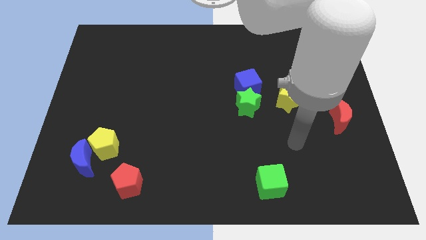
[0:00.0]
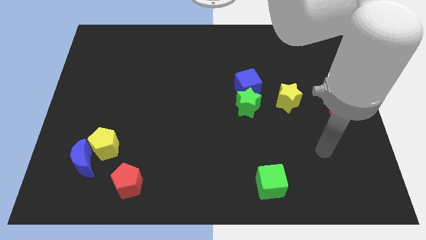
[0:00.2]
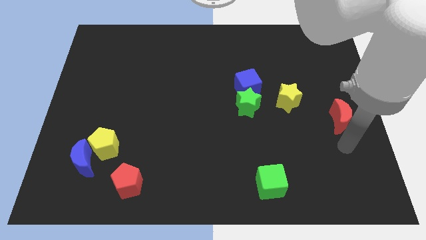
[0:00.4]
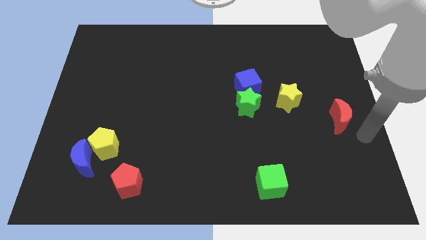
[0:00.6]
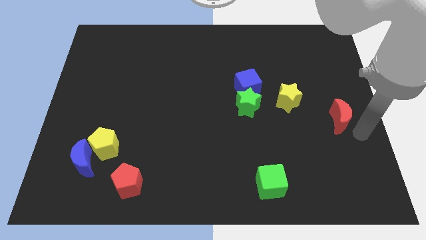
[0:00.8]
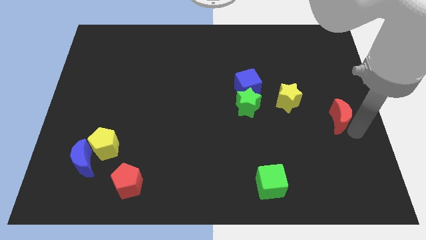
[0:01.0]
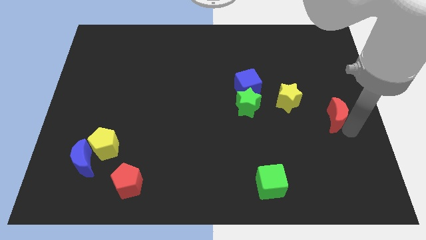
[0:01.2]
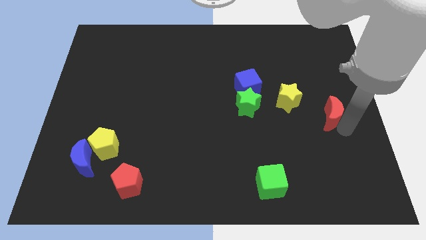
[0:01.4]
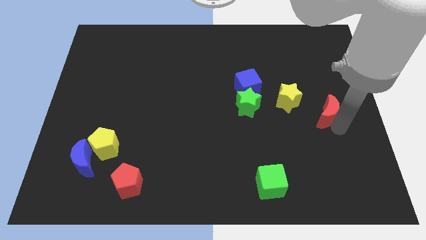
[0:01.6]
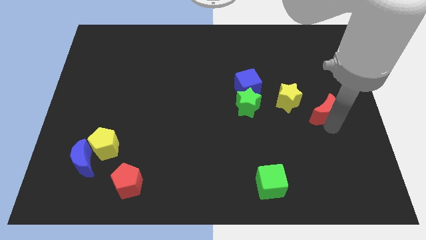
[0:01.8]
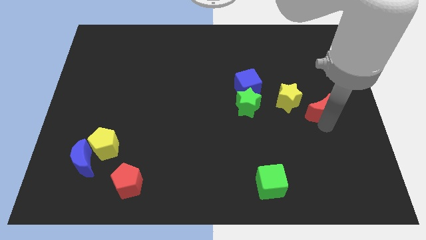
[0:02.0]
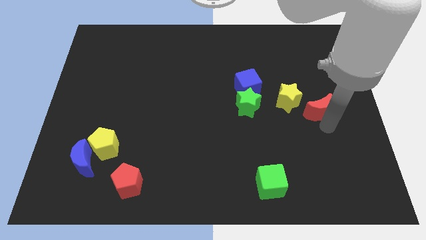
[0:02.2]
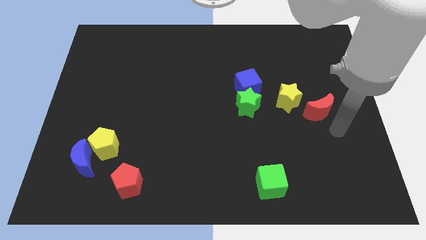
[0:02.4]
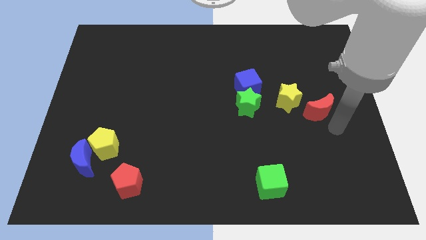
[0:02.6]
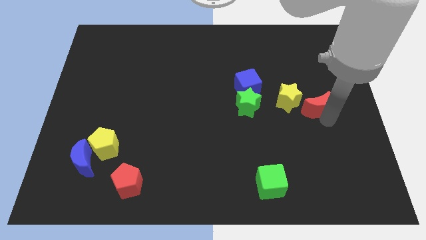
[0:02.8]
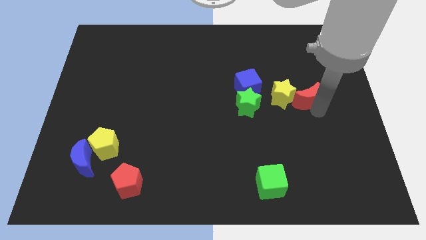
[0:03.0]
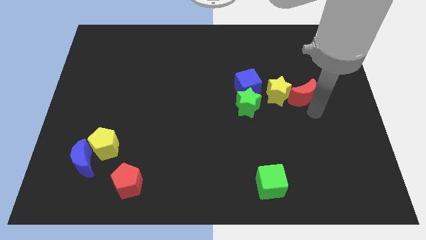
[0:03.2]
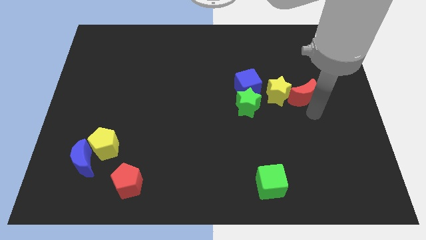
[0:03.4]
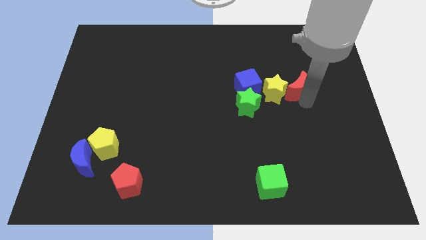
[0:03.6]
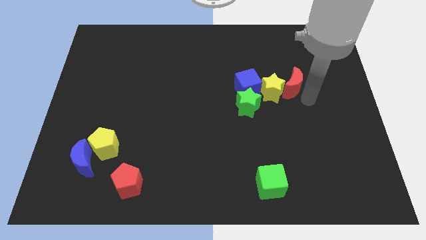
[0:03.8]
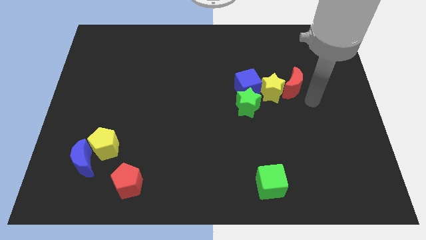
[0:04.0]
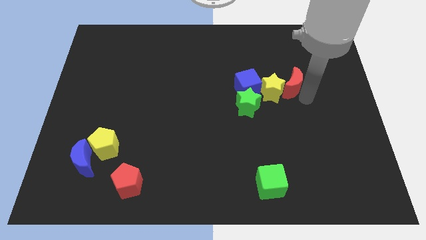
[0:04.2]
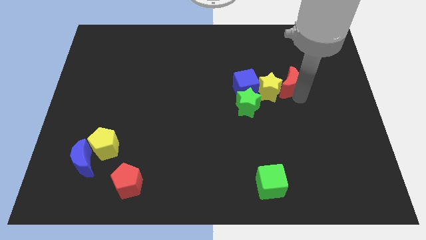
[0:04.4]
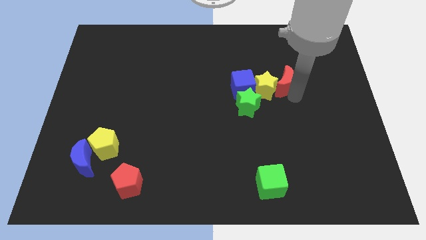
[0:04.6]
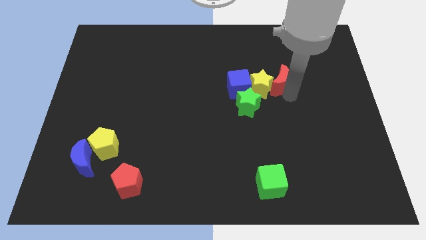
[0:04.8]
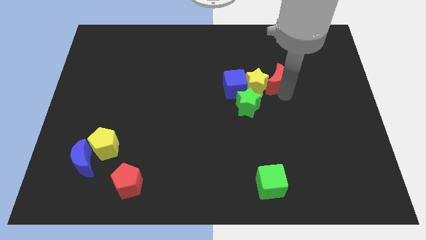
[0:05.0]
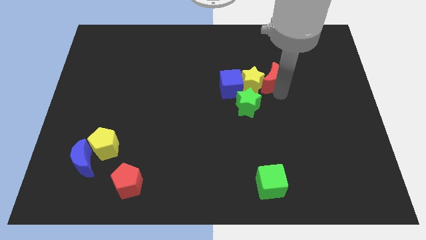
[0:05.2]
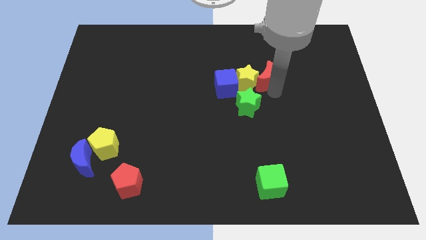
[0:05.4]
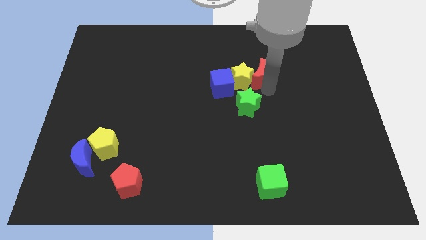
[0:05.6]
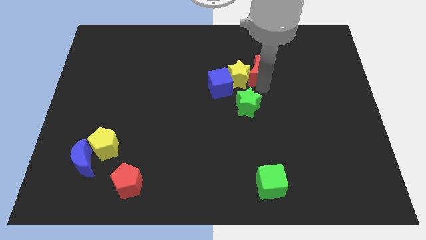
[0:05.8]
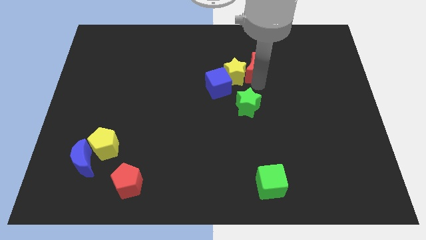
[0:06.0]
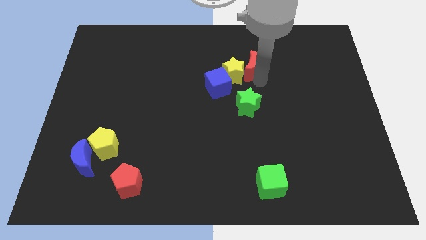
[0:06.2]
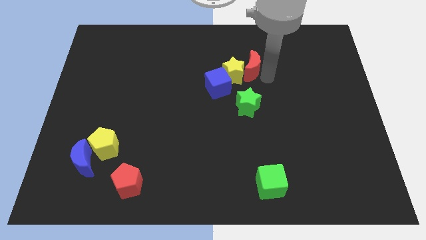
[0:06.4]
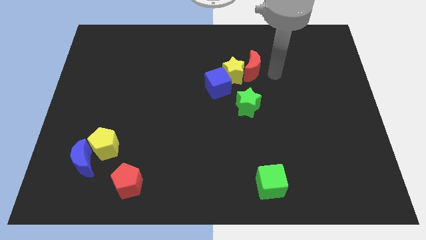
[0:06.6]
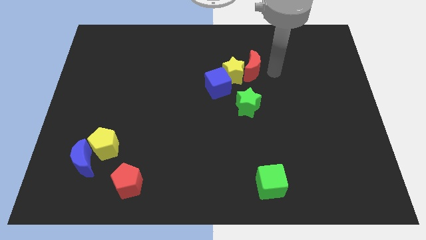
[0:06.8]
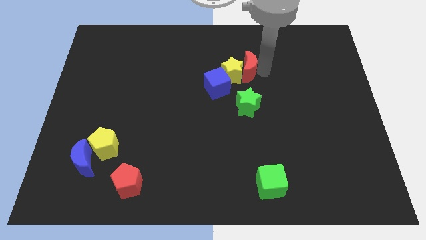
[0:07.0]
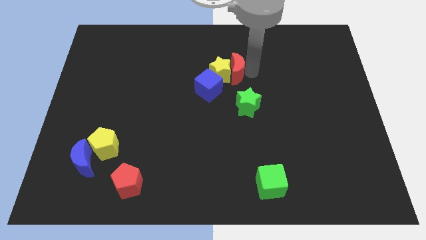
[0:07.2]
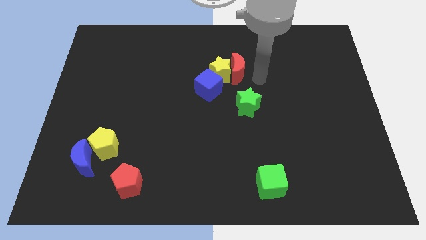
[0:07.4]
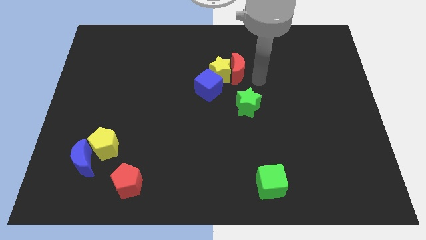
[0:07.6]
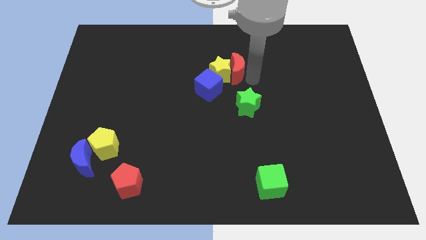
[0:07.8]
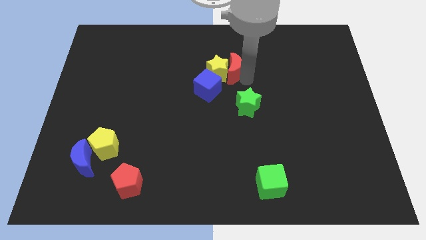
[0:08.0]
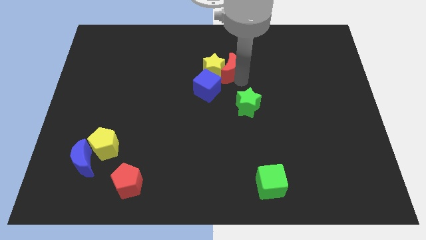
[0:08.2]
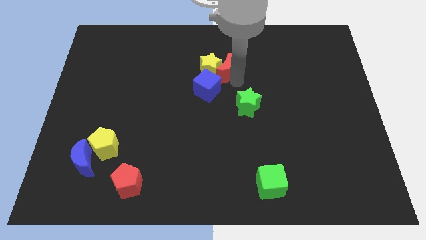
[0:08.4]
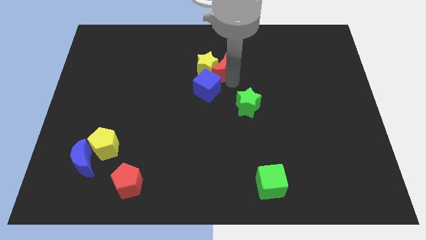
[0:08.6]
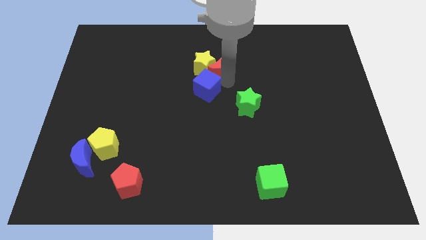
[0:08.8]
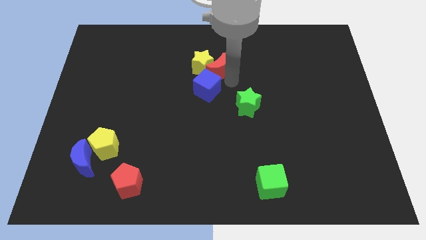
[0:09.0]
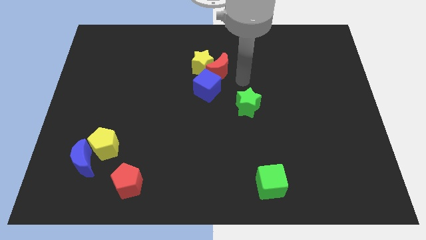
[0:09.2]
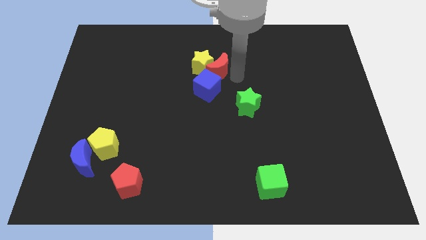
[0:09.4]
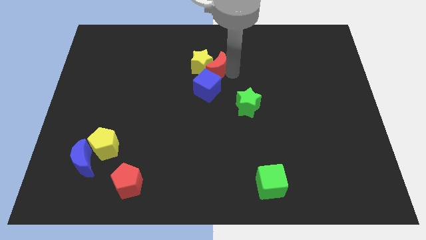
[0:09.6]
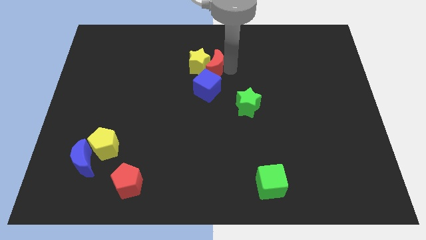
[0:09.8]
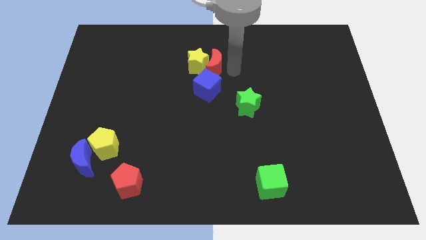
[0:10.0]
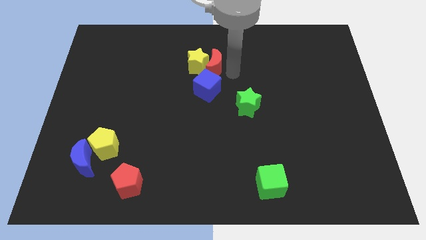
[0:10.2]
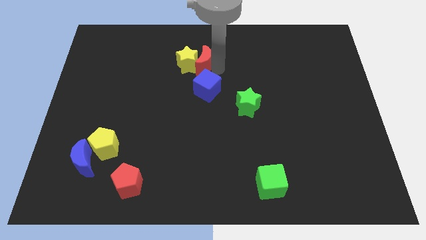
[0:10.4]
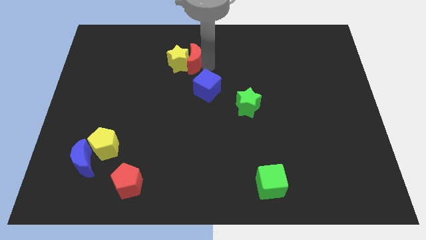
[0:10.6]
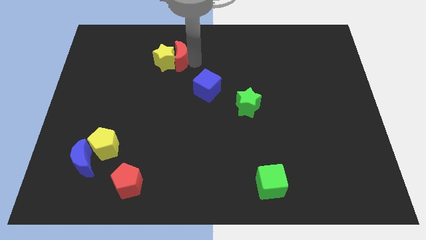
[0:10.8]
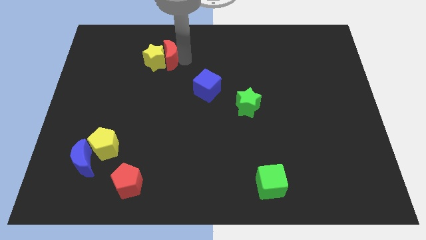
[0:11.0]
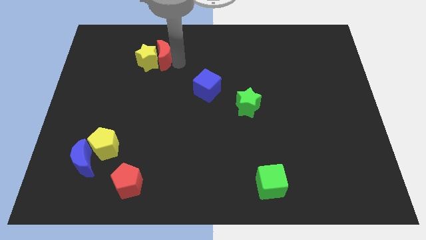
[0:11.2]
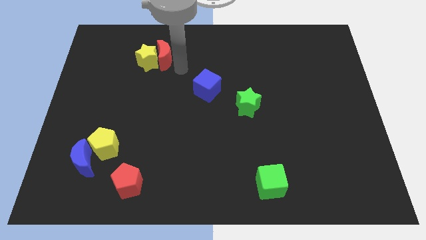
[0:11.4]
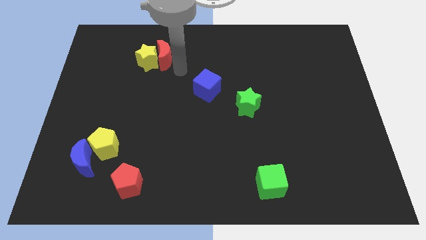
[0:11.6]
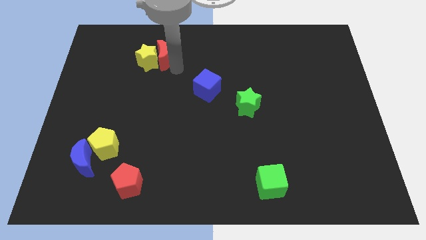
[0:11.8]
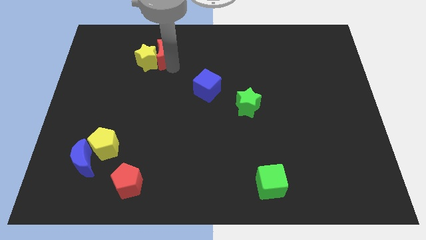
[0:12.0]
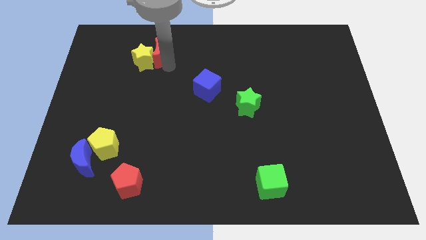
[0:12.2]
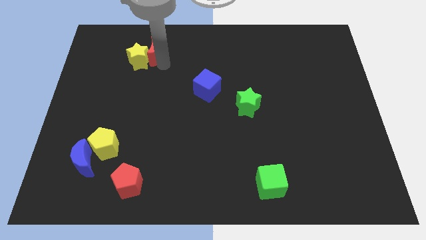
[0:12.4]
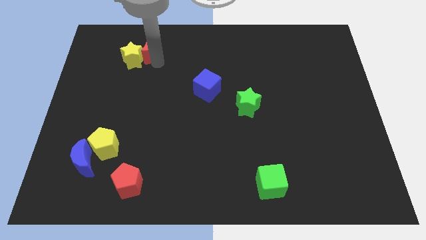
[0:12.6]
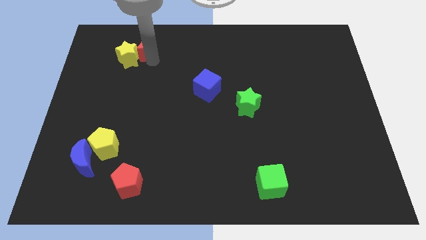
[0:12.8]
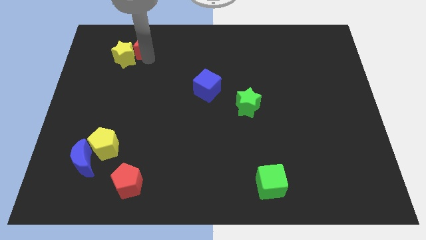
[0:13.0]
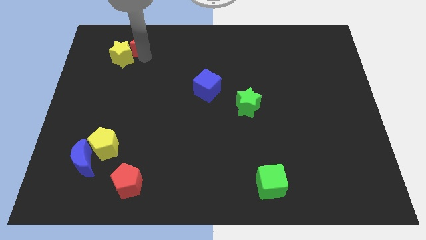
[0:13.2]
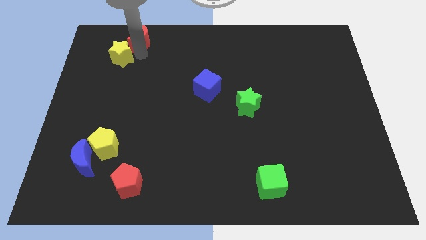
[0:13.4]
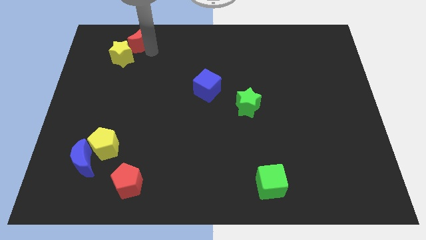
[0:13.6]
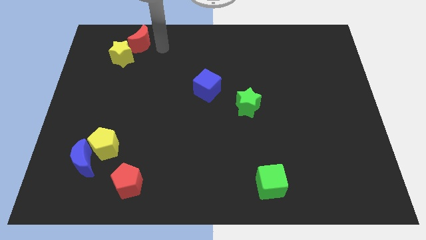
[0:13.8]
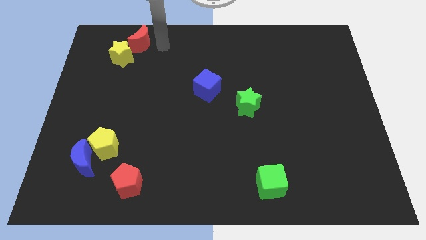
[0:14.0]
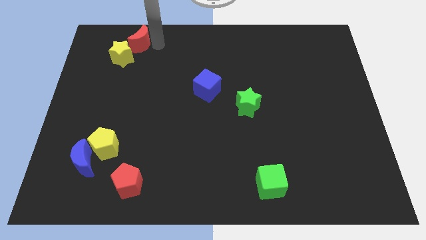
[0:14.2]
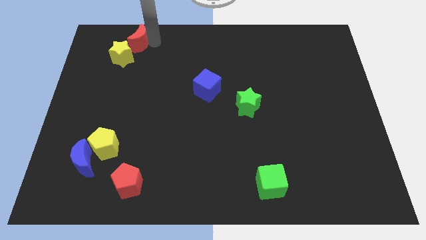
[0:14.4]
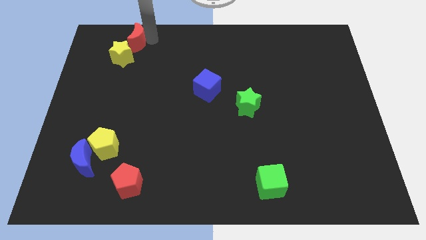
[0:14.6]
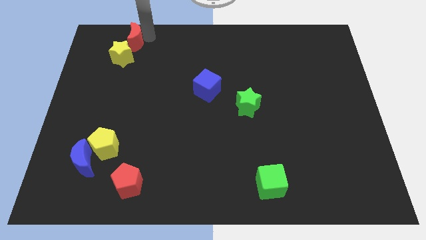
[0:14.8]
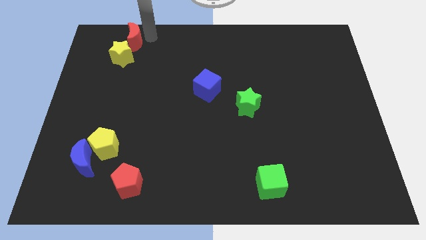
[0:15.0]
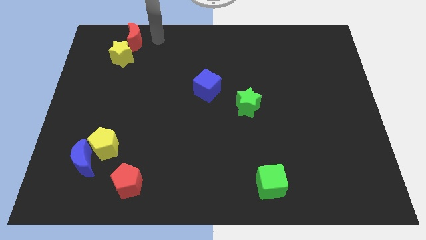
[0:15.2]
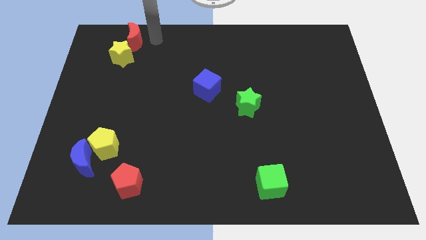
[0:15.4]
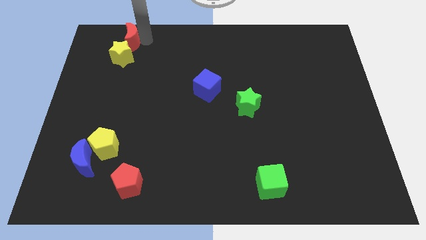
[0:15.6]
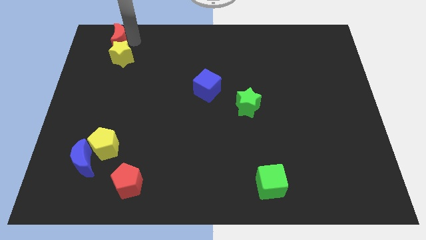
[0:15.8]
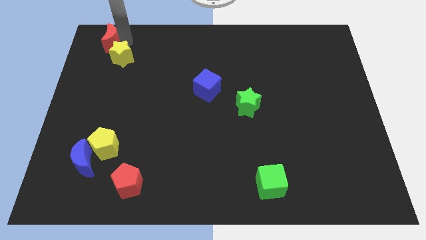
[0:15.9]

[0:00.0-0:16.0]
push the red moon to the upper left corner
